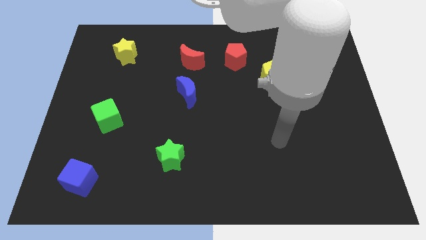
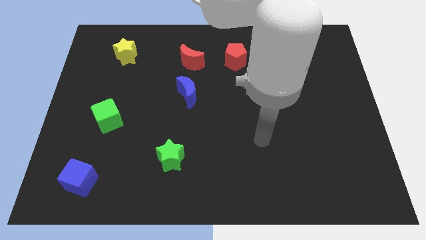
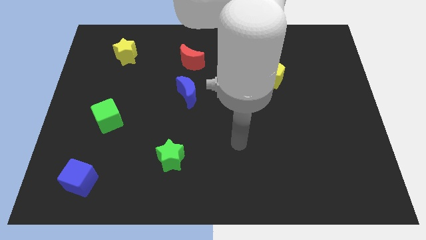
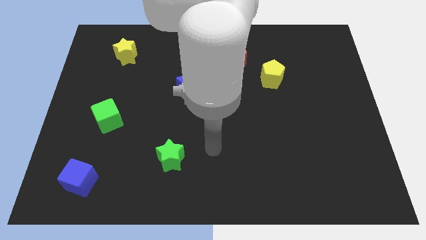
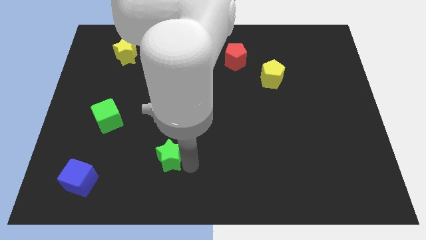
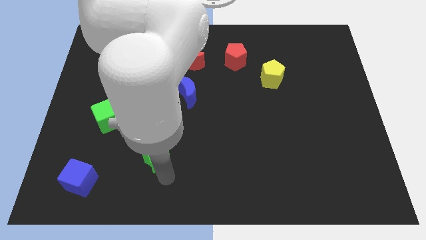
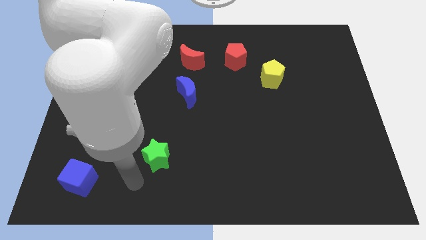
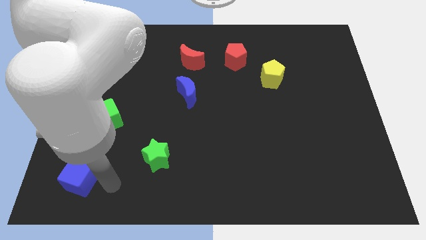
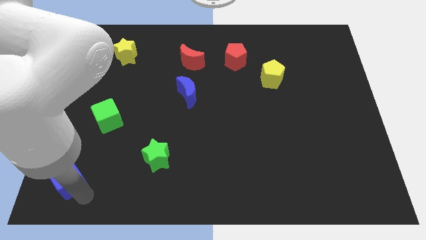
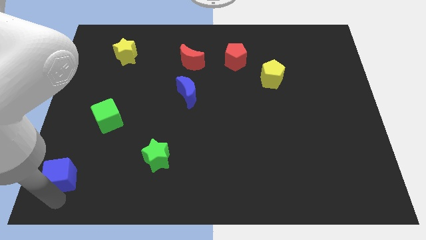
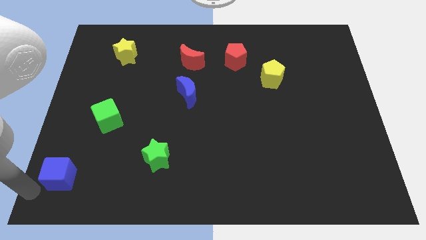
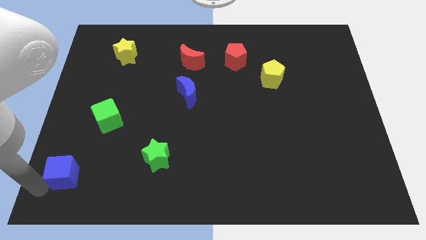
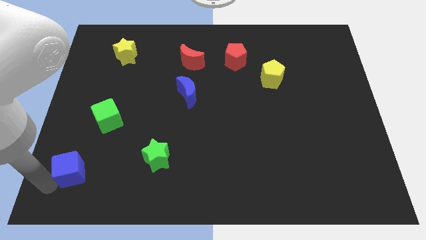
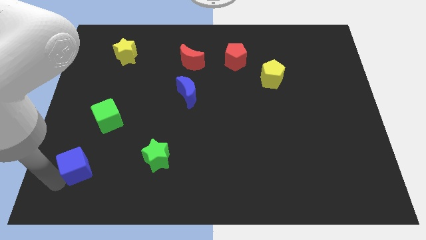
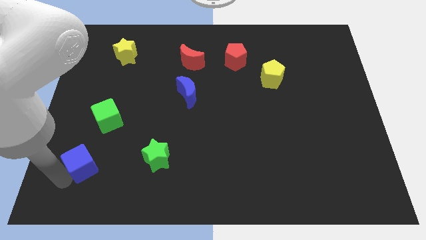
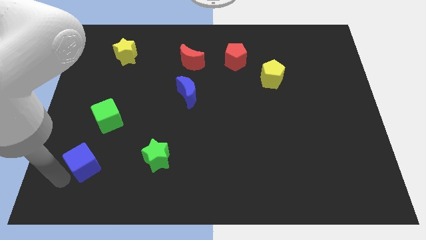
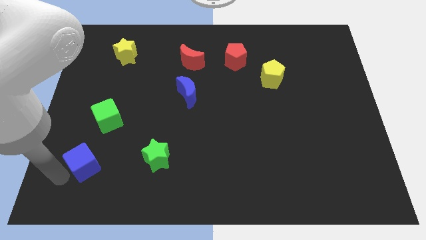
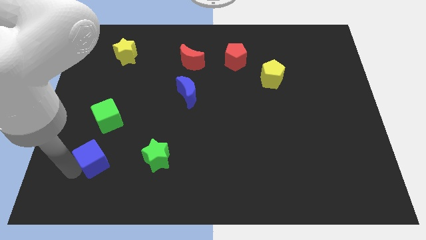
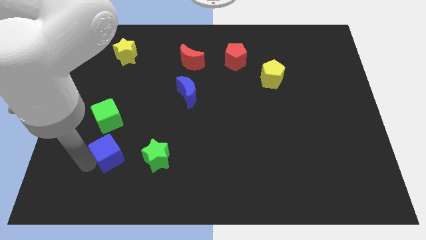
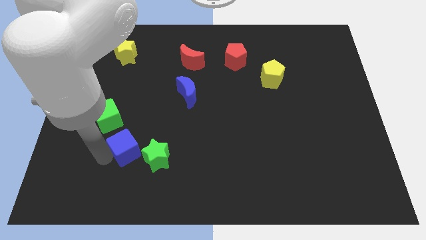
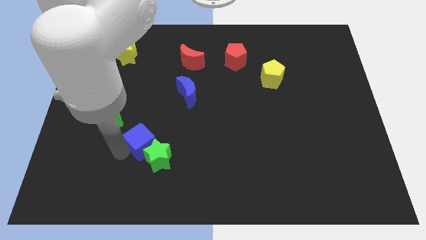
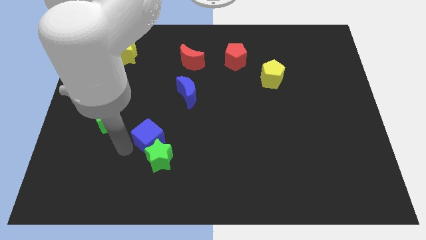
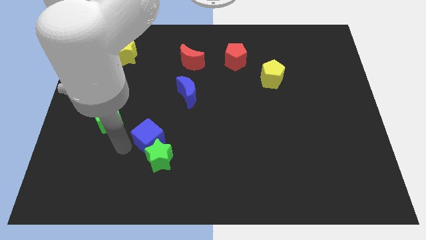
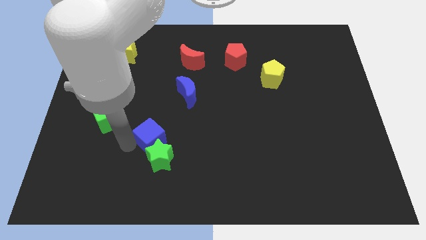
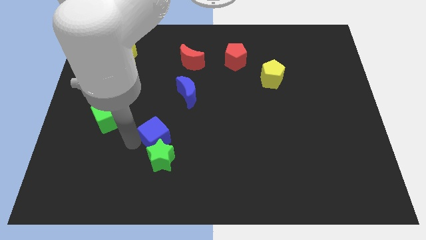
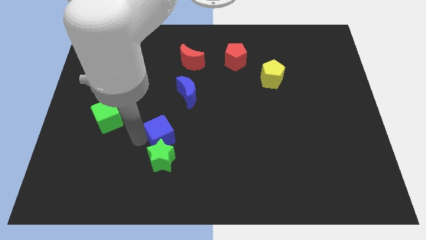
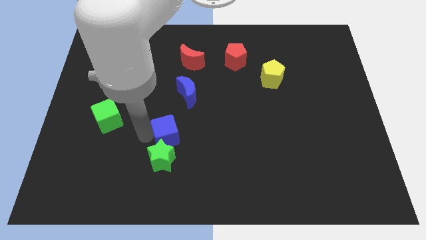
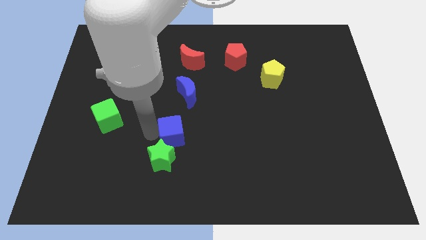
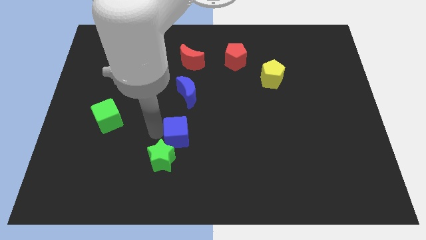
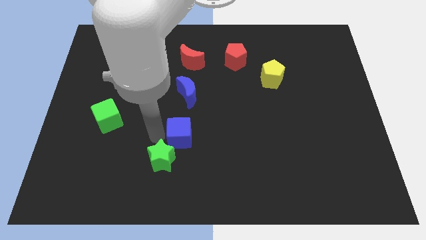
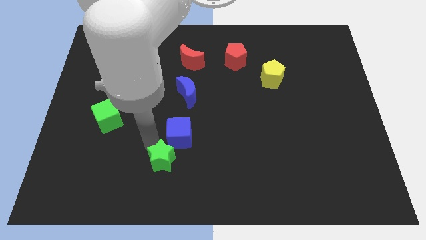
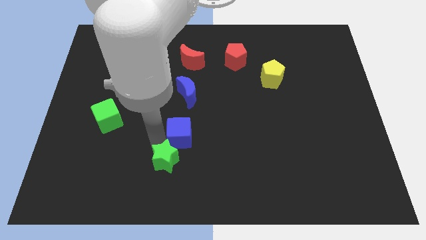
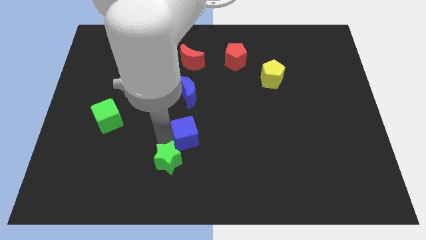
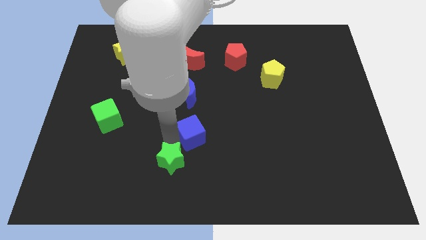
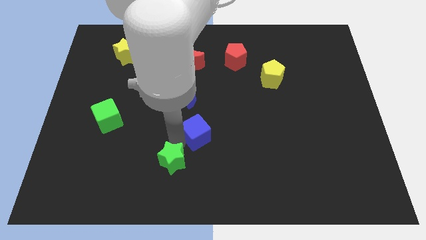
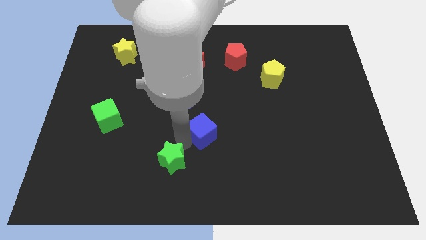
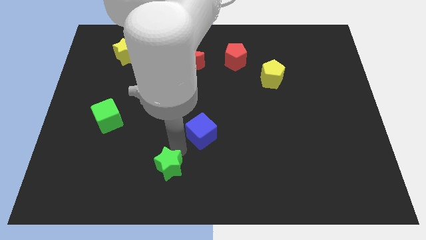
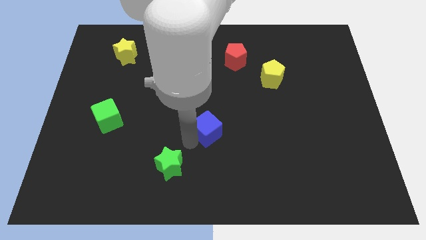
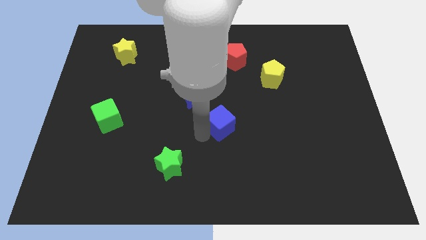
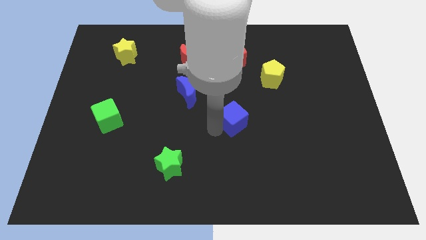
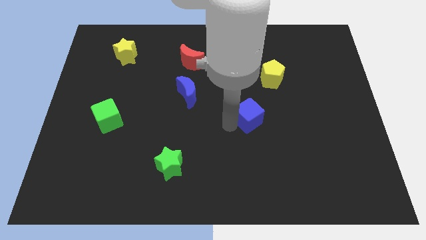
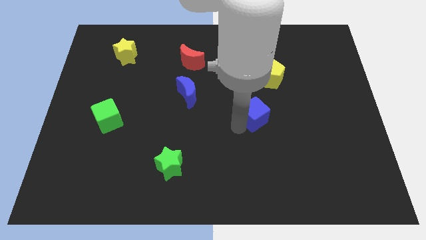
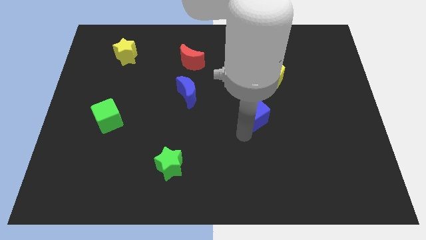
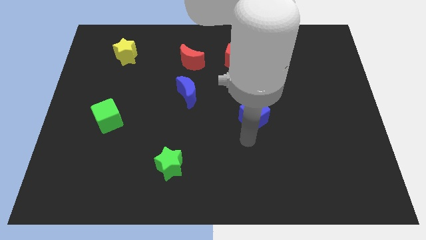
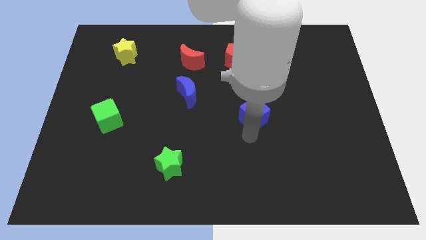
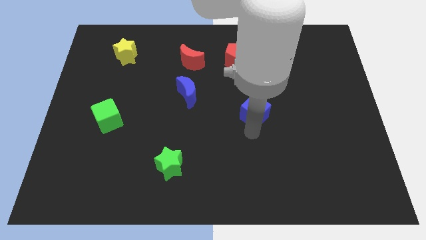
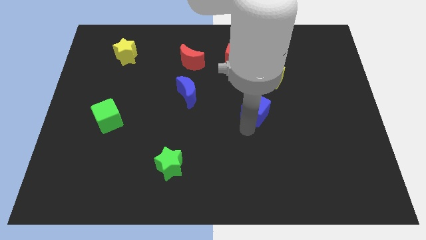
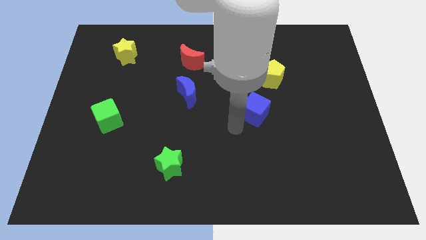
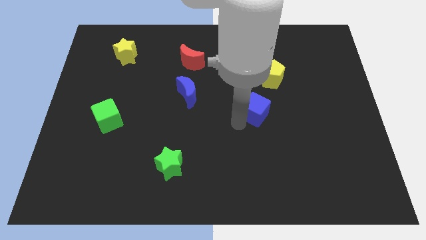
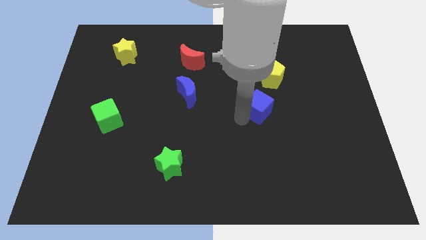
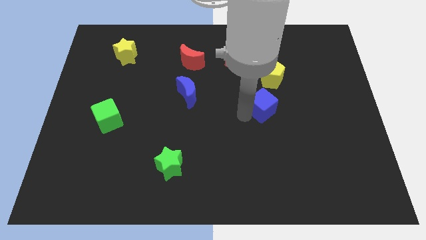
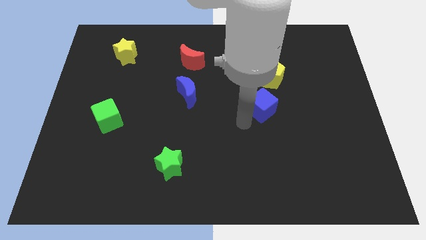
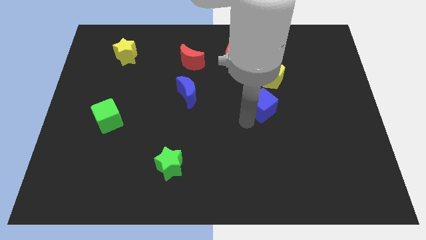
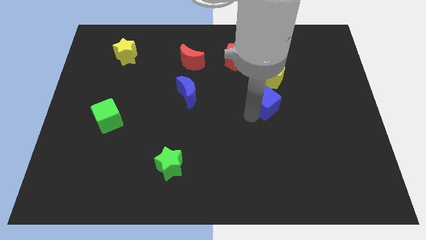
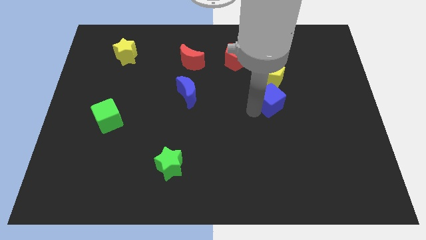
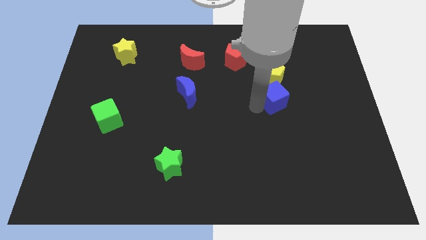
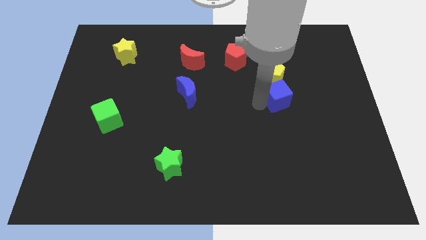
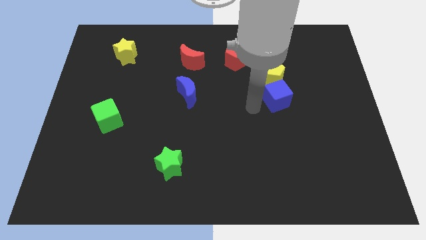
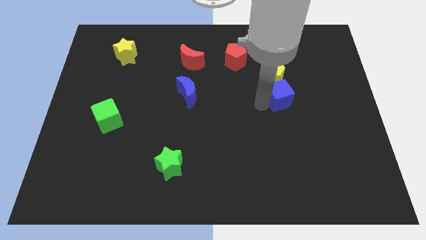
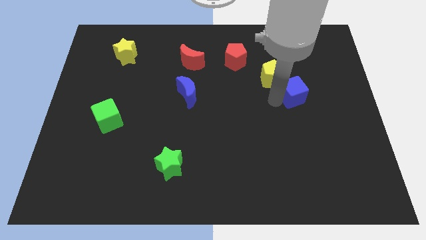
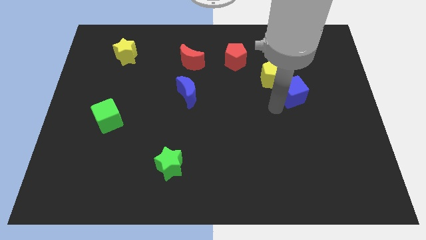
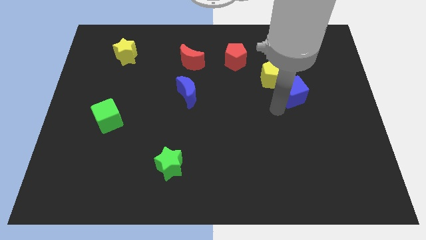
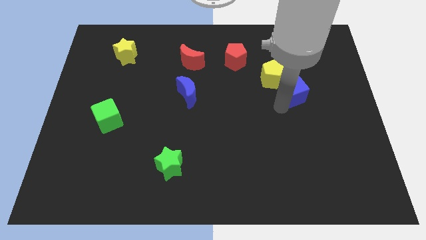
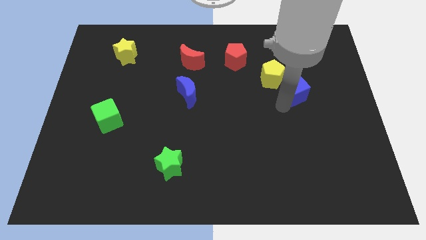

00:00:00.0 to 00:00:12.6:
push the blue cube right of the yellow pentagon

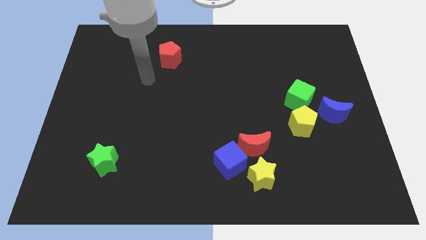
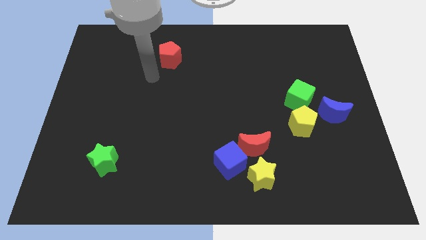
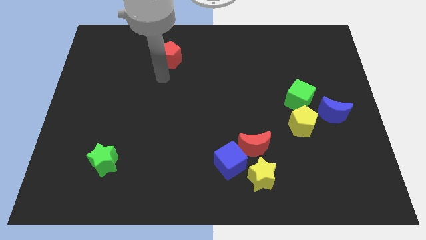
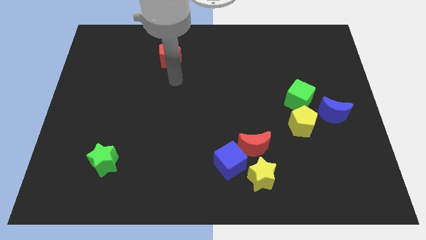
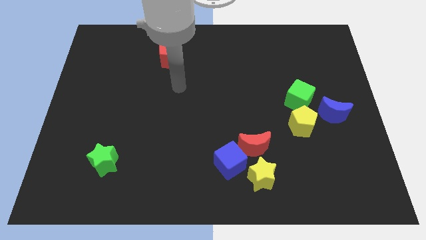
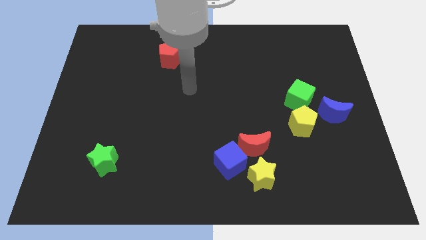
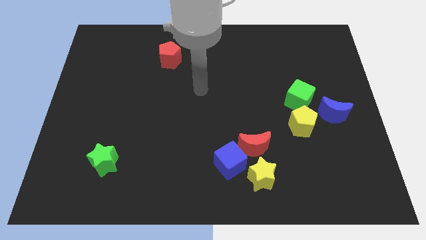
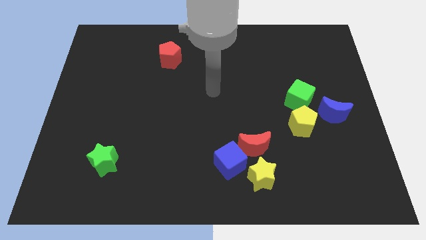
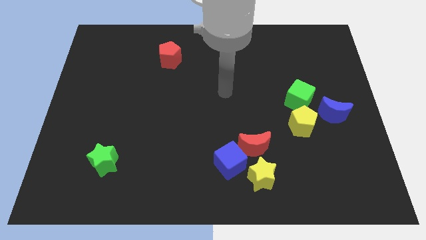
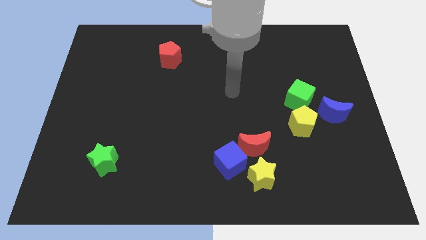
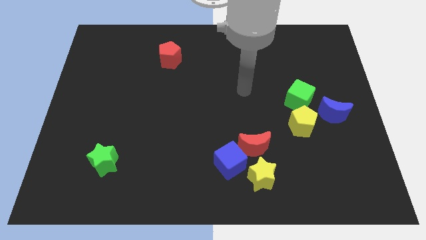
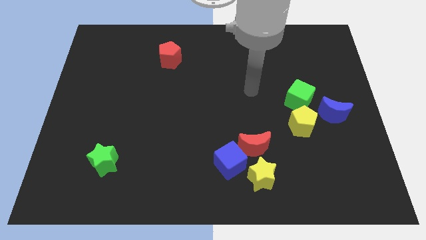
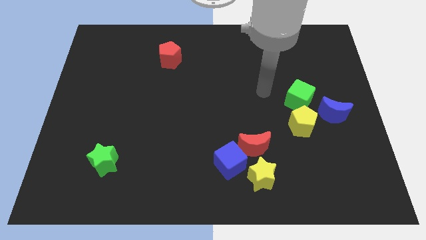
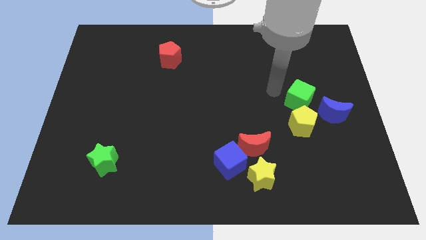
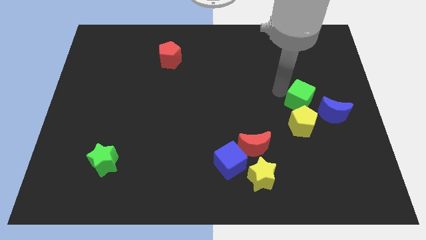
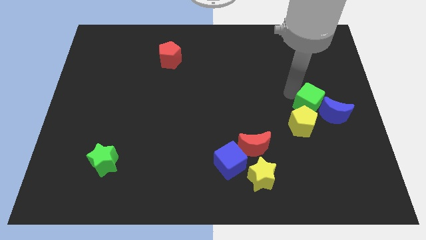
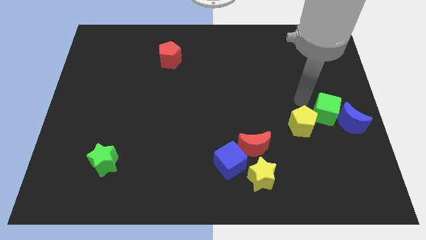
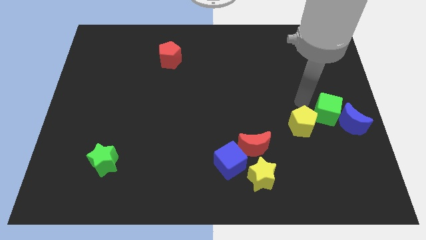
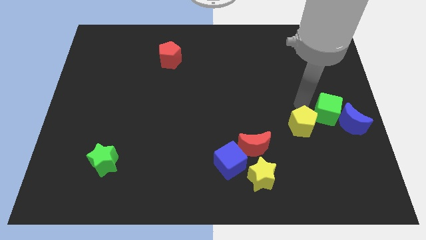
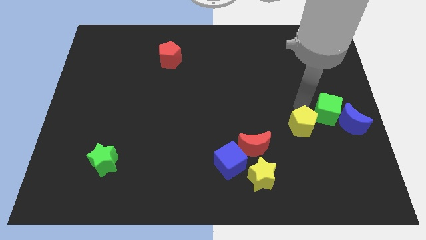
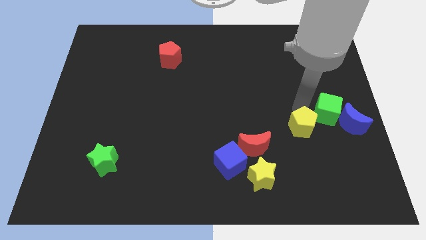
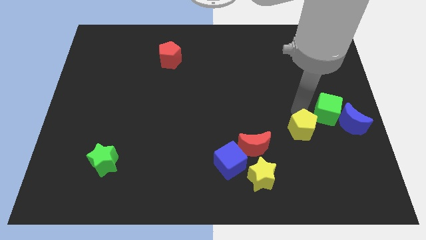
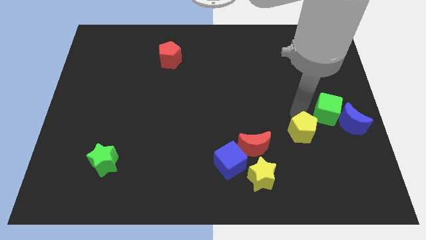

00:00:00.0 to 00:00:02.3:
move the yellow pentagon just right of the red moon
